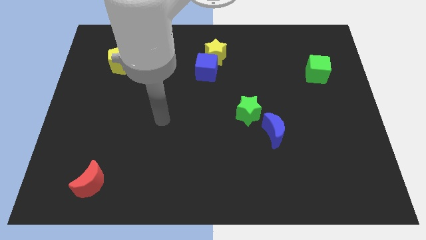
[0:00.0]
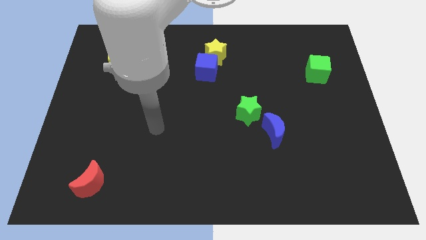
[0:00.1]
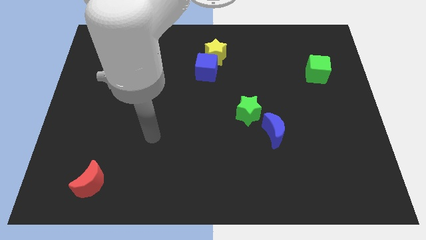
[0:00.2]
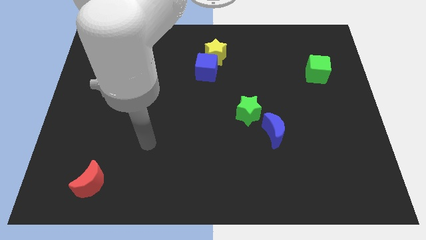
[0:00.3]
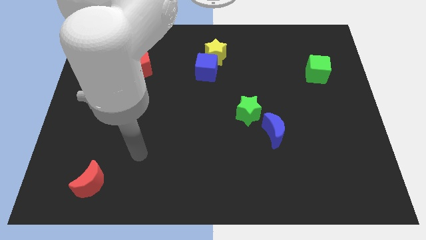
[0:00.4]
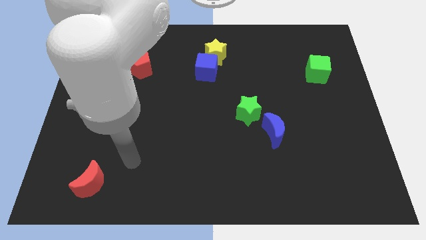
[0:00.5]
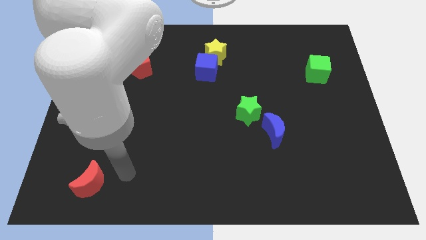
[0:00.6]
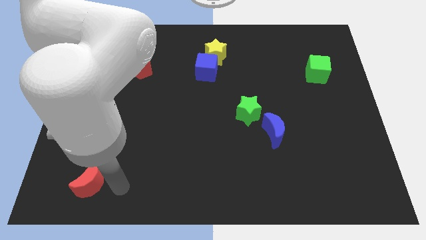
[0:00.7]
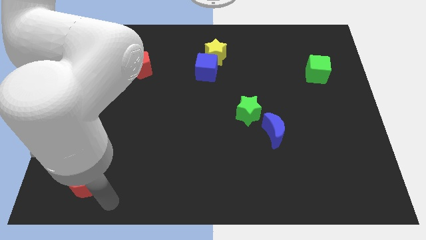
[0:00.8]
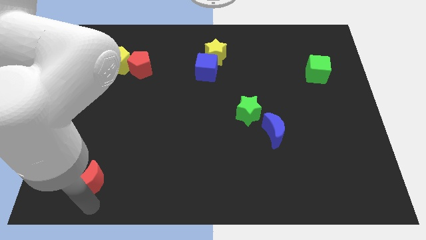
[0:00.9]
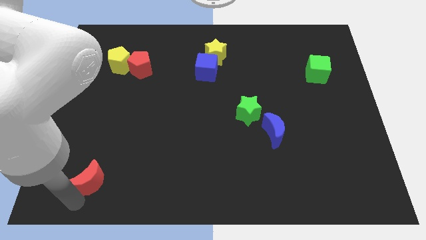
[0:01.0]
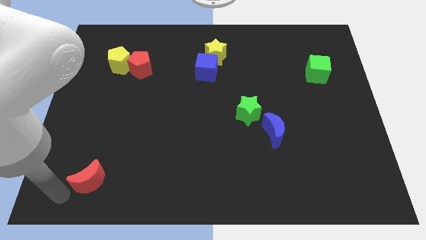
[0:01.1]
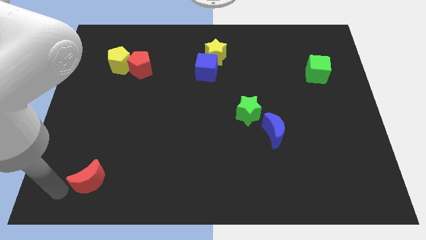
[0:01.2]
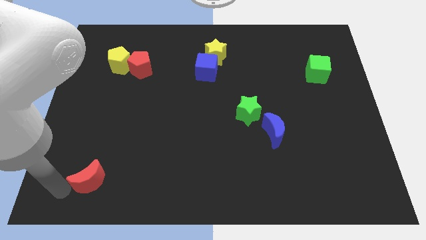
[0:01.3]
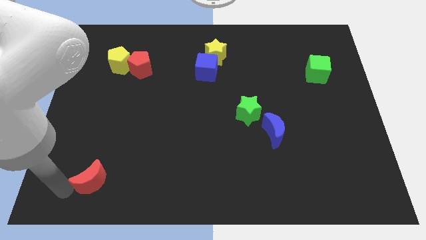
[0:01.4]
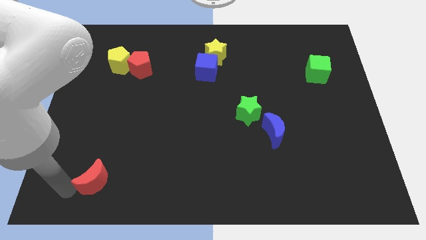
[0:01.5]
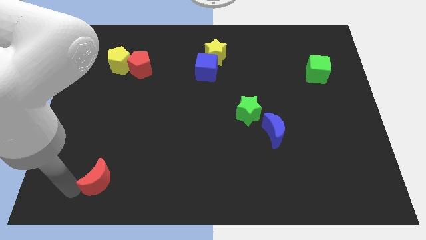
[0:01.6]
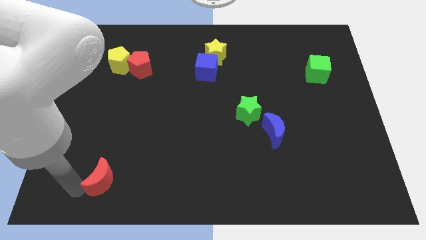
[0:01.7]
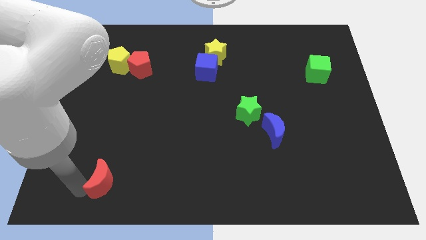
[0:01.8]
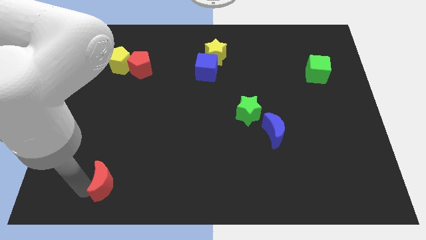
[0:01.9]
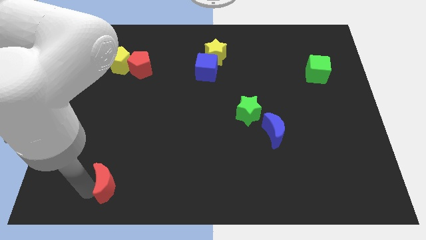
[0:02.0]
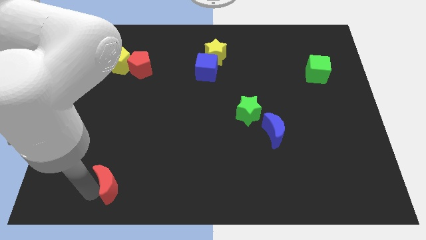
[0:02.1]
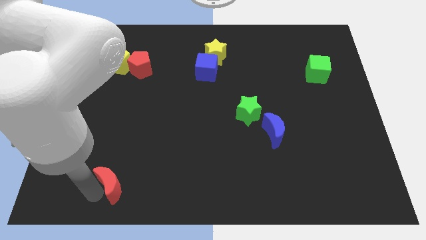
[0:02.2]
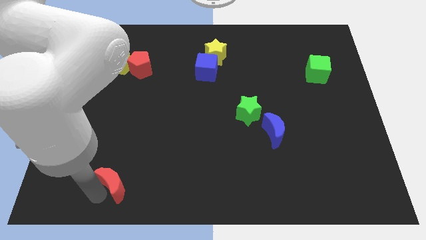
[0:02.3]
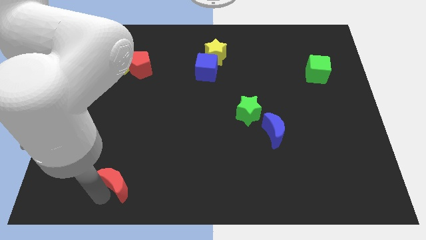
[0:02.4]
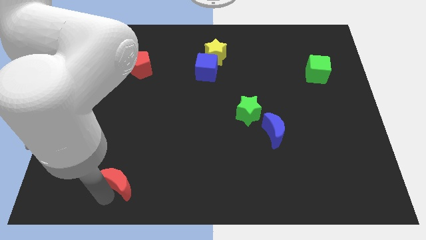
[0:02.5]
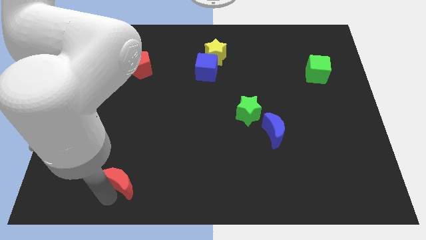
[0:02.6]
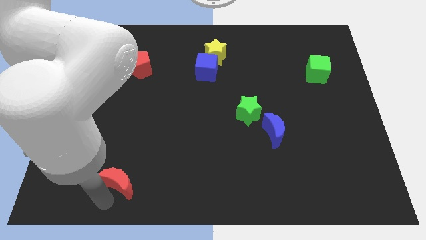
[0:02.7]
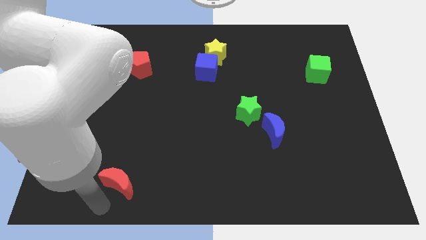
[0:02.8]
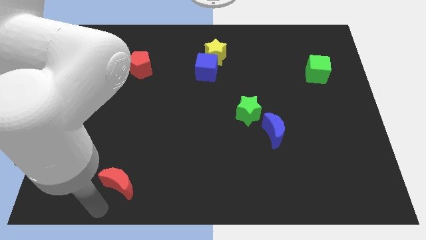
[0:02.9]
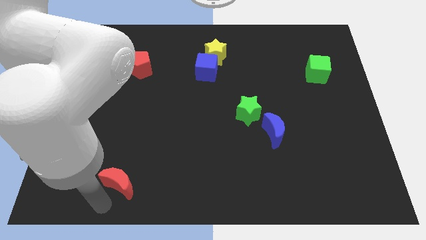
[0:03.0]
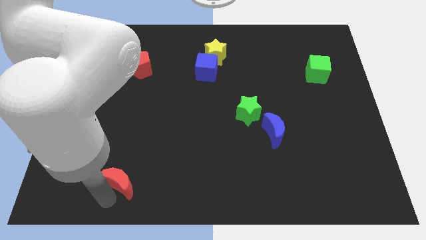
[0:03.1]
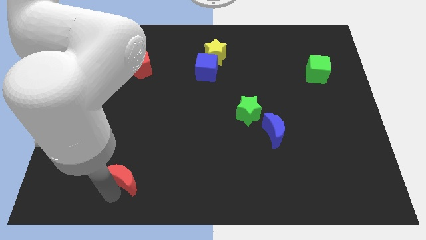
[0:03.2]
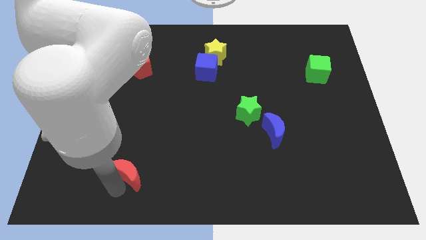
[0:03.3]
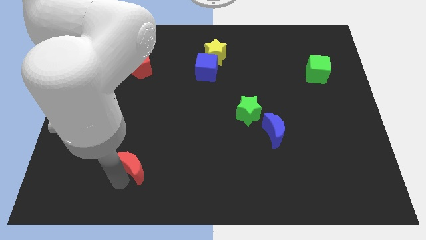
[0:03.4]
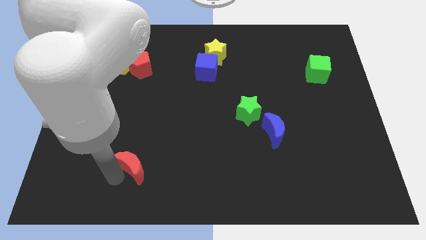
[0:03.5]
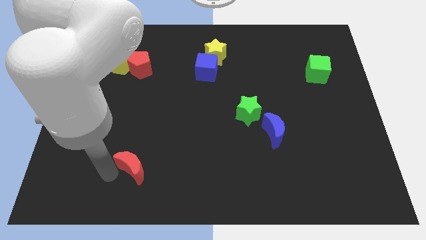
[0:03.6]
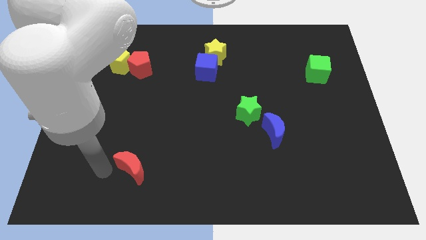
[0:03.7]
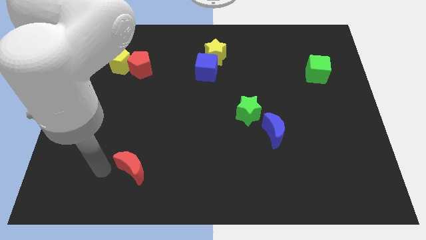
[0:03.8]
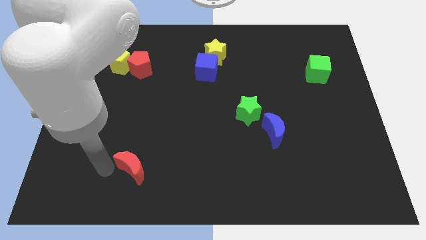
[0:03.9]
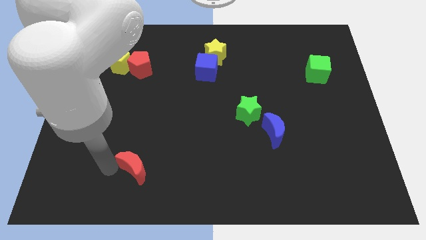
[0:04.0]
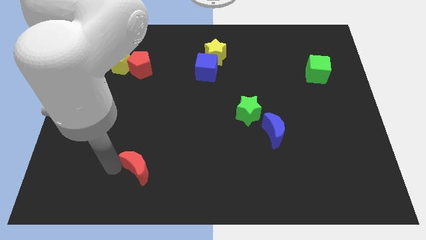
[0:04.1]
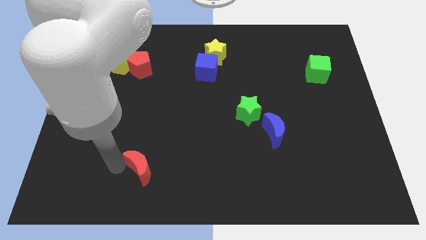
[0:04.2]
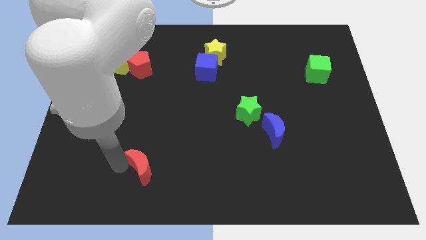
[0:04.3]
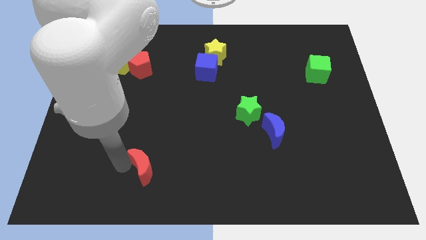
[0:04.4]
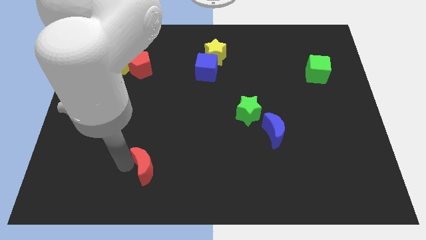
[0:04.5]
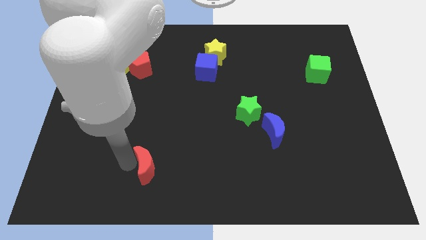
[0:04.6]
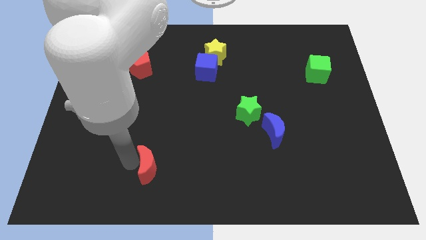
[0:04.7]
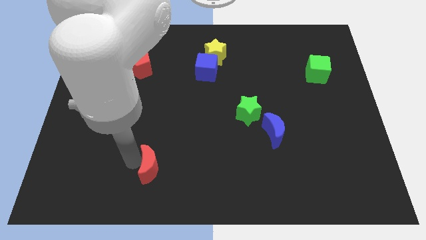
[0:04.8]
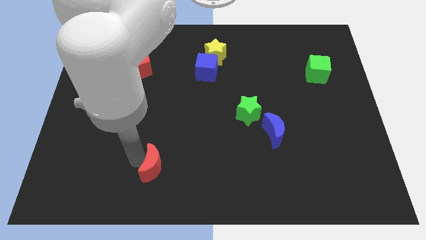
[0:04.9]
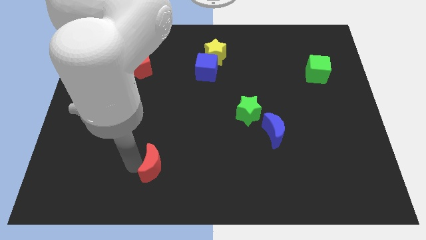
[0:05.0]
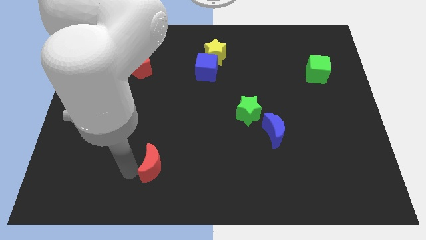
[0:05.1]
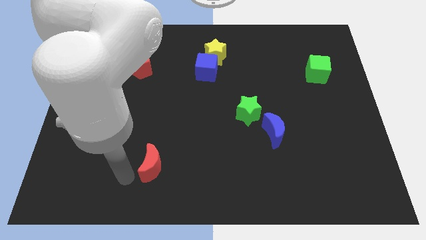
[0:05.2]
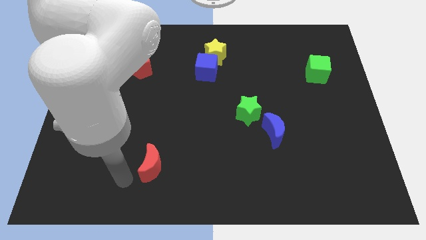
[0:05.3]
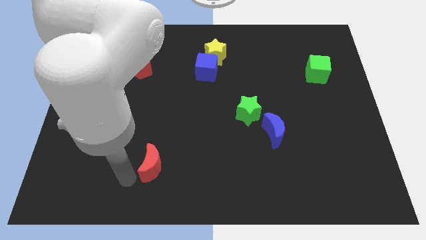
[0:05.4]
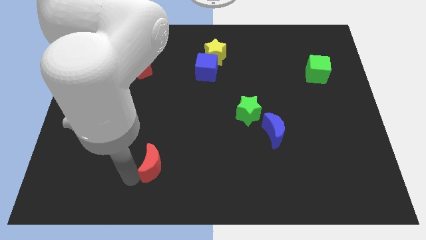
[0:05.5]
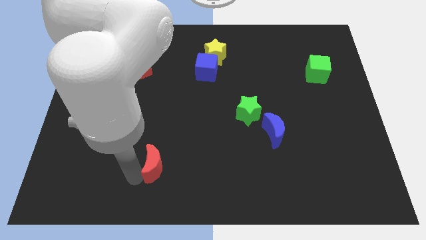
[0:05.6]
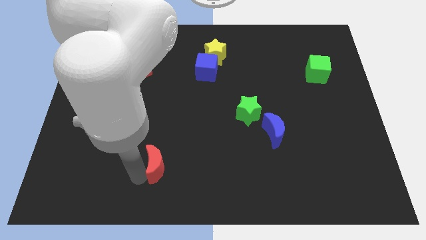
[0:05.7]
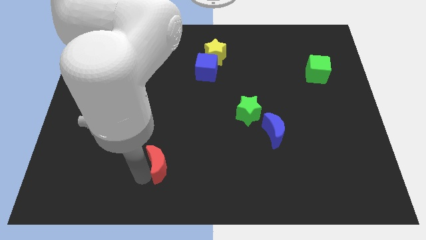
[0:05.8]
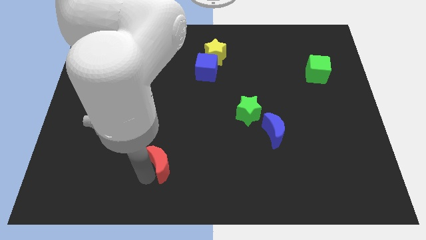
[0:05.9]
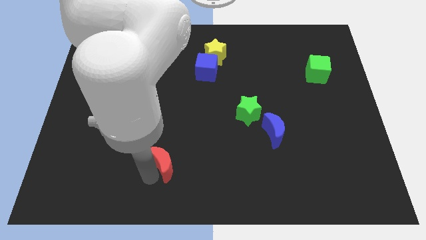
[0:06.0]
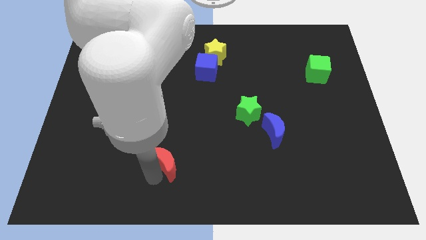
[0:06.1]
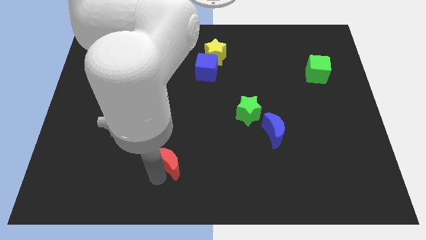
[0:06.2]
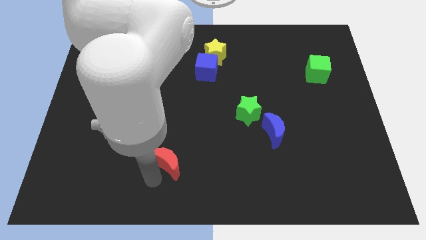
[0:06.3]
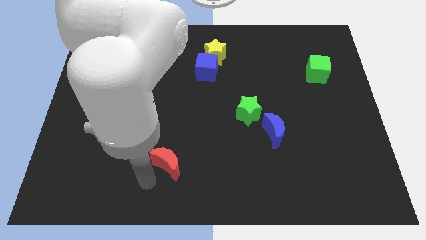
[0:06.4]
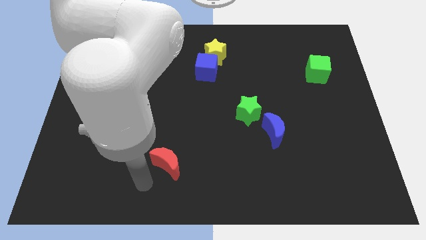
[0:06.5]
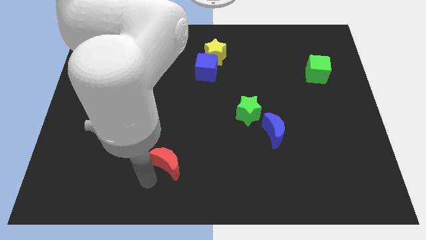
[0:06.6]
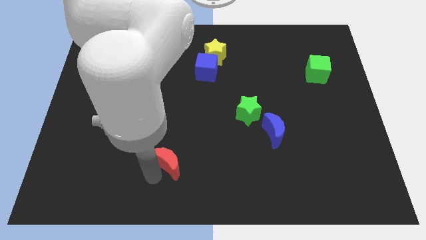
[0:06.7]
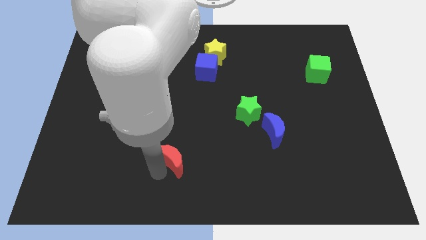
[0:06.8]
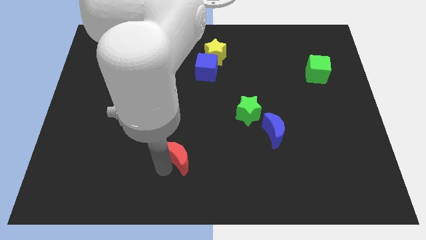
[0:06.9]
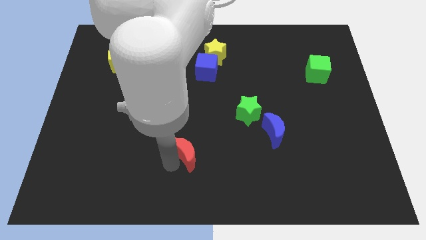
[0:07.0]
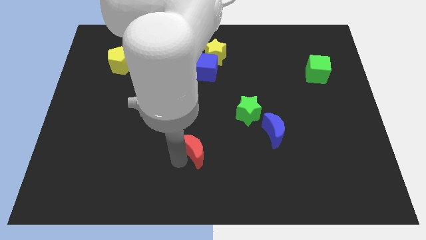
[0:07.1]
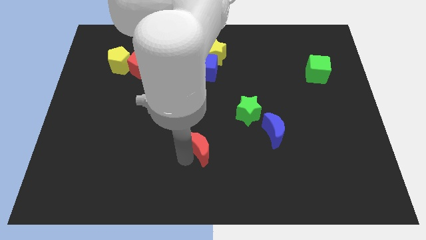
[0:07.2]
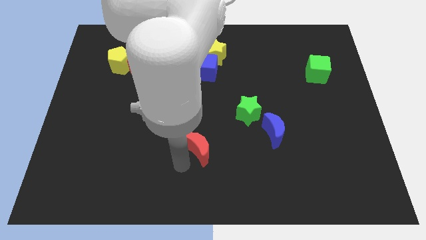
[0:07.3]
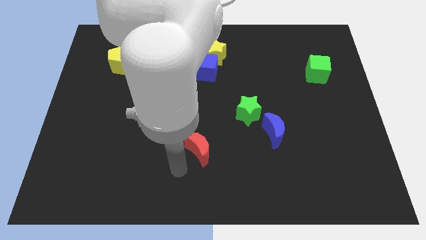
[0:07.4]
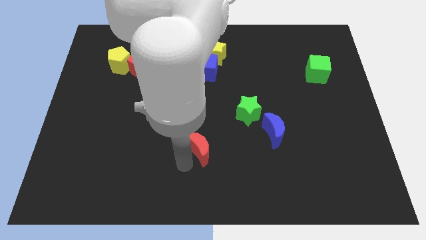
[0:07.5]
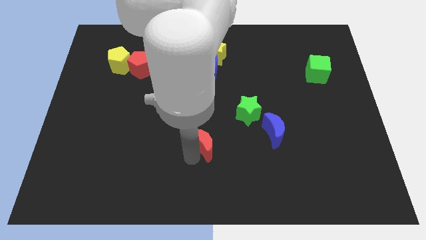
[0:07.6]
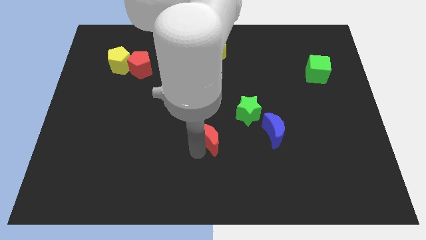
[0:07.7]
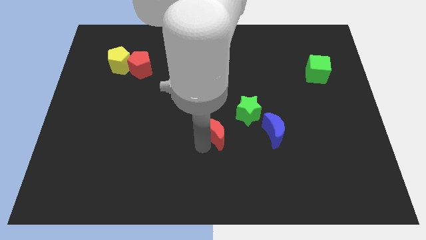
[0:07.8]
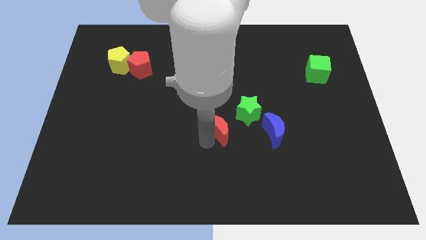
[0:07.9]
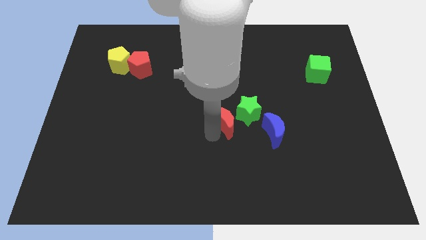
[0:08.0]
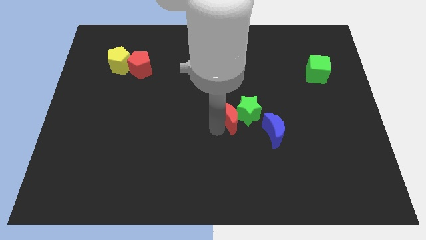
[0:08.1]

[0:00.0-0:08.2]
put the red moon towards the green star

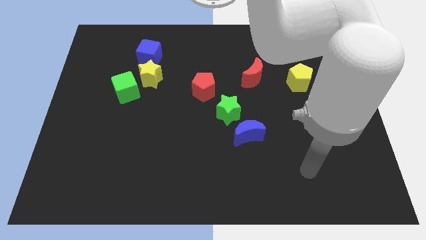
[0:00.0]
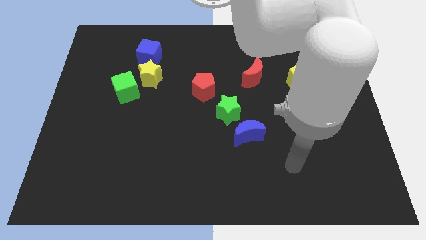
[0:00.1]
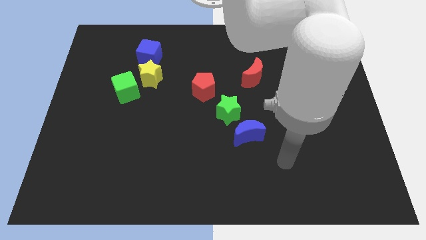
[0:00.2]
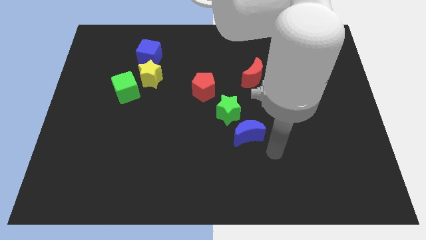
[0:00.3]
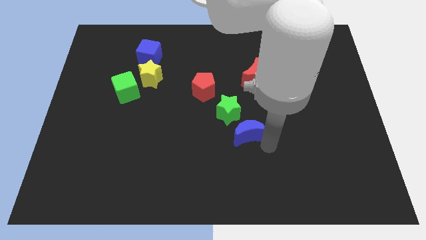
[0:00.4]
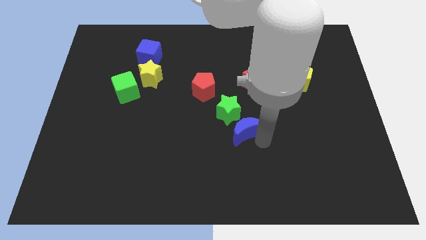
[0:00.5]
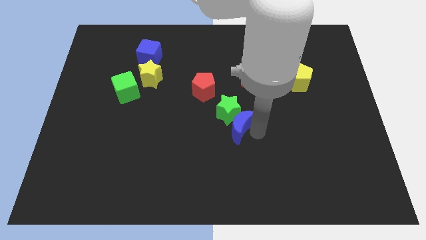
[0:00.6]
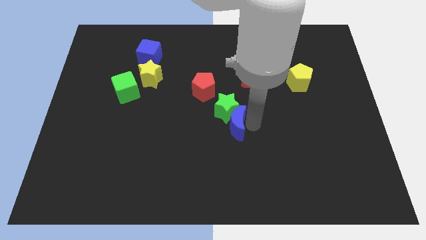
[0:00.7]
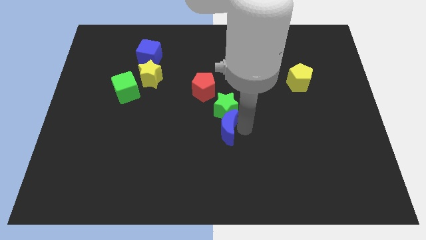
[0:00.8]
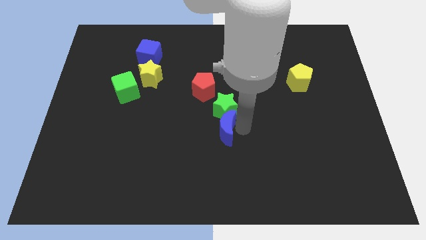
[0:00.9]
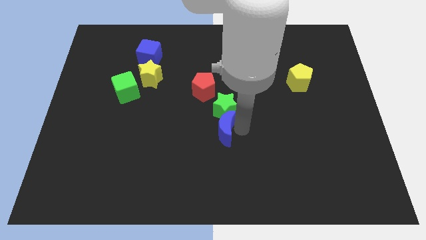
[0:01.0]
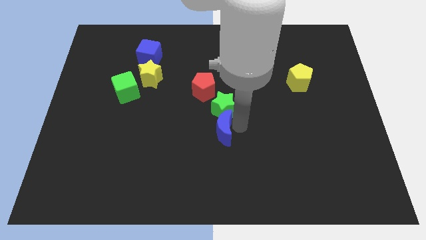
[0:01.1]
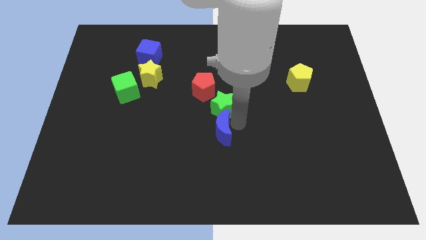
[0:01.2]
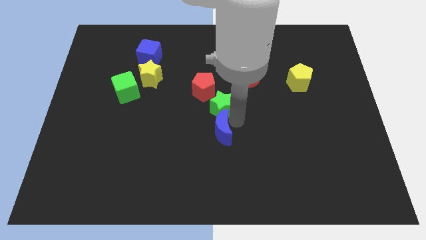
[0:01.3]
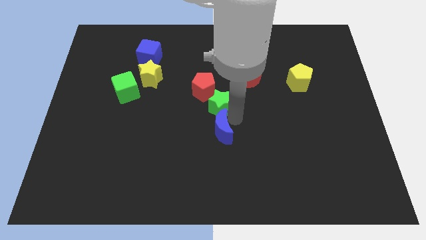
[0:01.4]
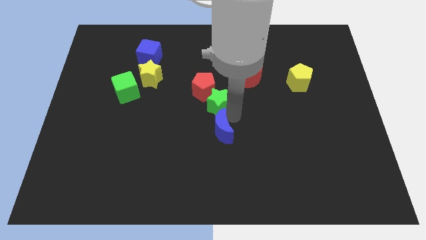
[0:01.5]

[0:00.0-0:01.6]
put the green star close to the red pentagon
